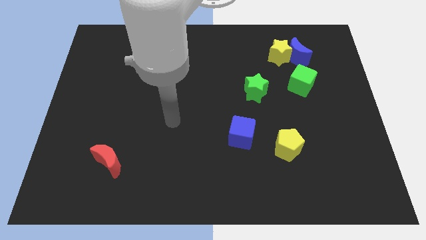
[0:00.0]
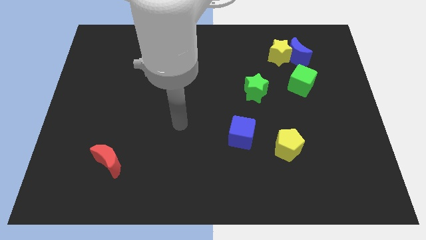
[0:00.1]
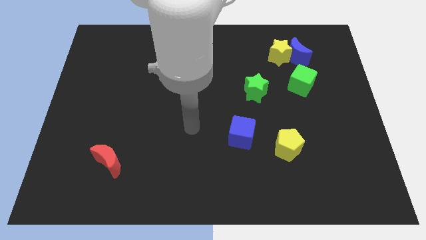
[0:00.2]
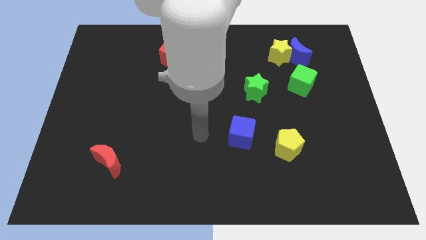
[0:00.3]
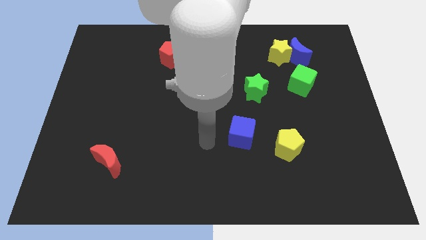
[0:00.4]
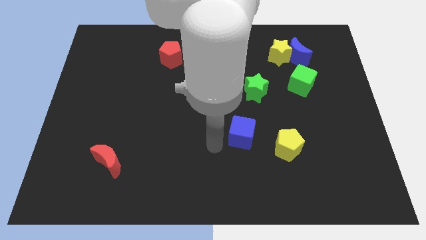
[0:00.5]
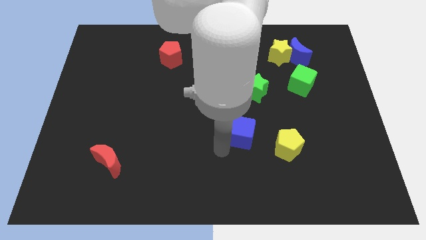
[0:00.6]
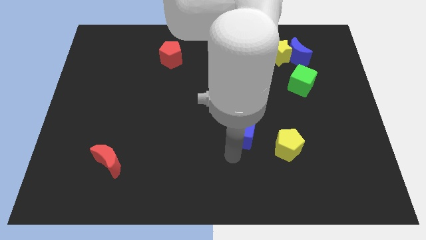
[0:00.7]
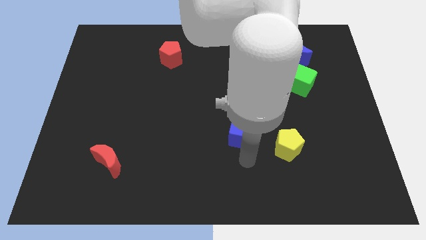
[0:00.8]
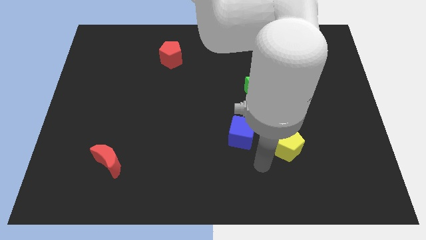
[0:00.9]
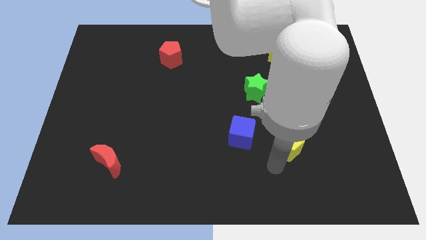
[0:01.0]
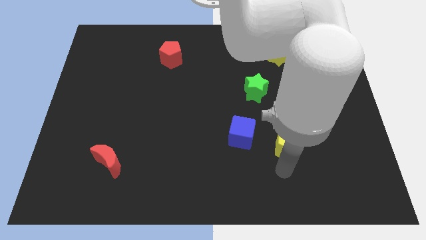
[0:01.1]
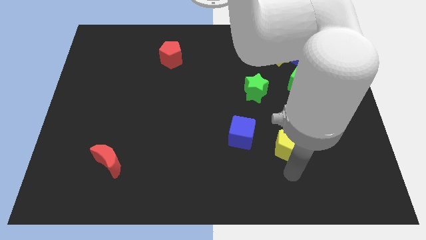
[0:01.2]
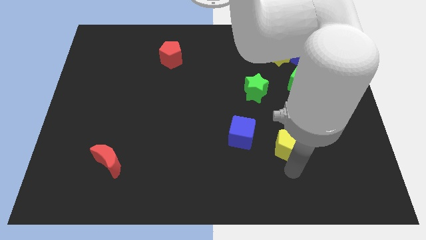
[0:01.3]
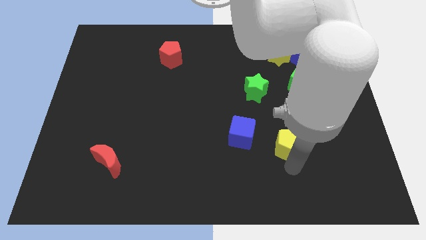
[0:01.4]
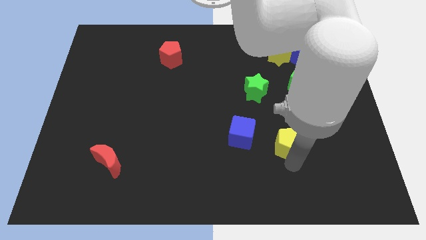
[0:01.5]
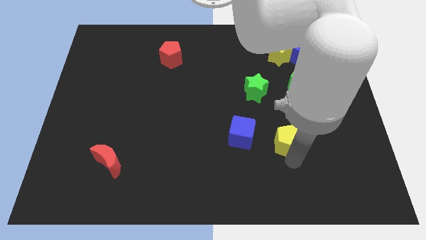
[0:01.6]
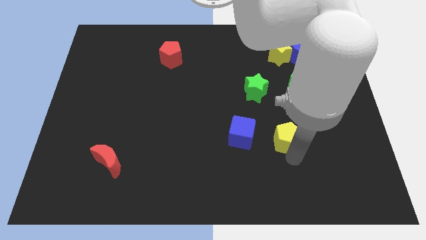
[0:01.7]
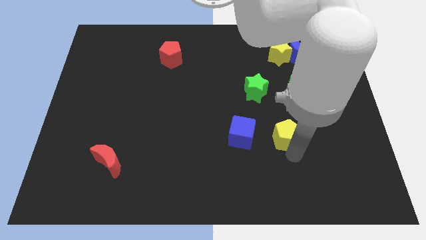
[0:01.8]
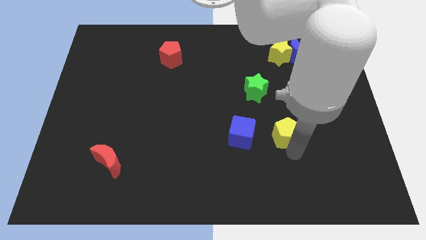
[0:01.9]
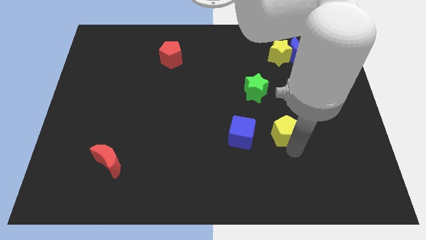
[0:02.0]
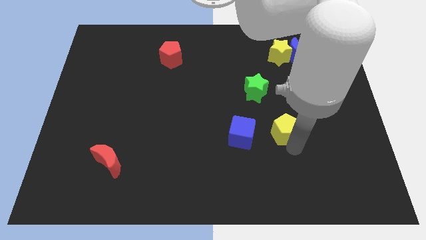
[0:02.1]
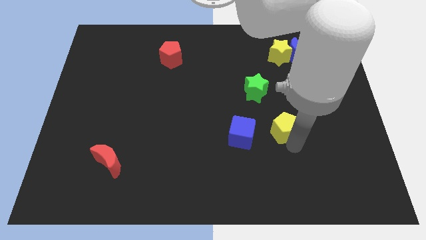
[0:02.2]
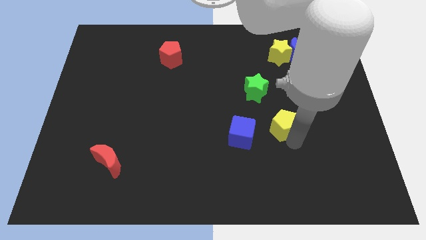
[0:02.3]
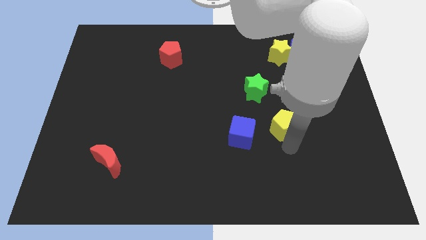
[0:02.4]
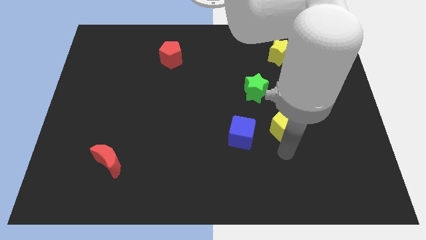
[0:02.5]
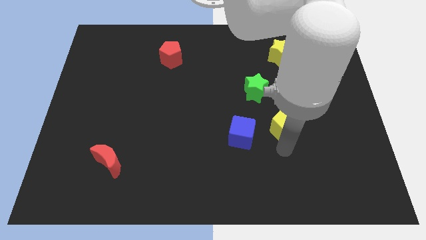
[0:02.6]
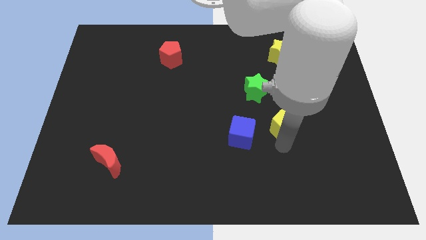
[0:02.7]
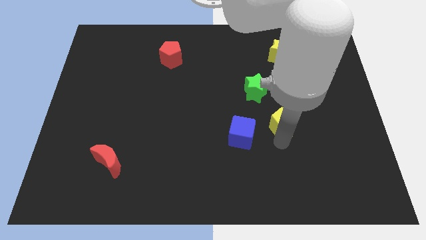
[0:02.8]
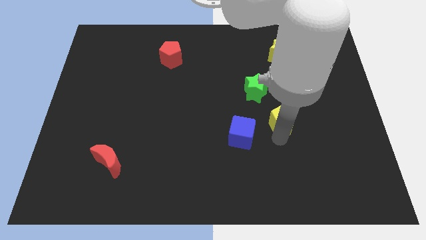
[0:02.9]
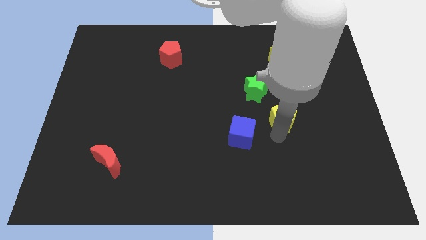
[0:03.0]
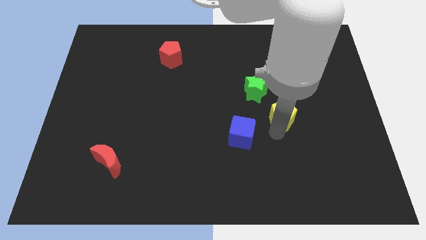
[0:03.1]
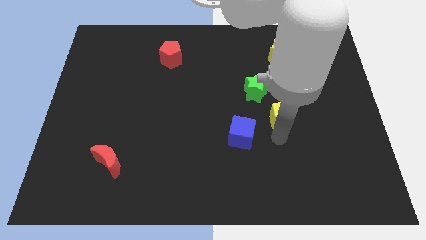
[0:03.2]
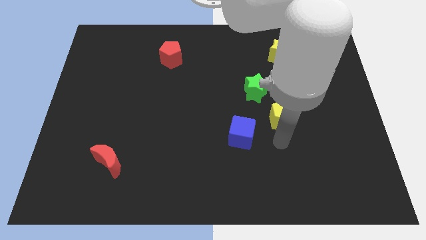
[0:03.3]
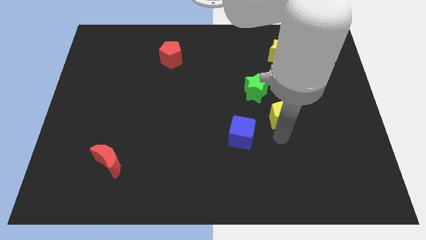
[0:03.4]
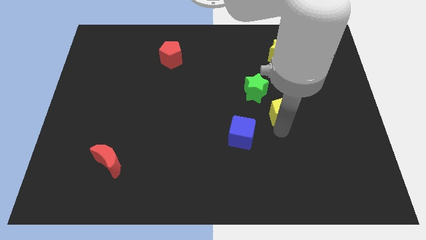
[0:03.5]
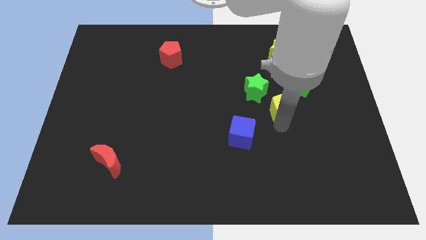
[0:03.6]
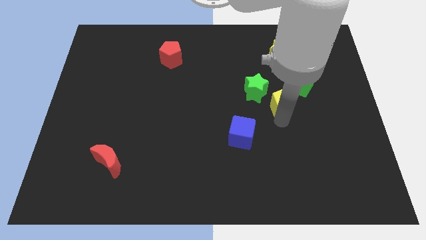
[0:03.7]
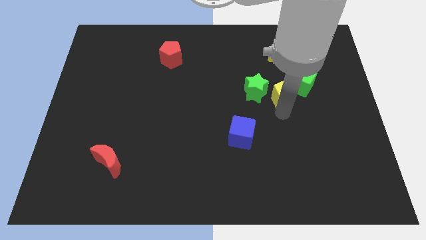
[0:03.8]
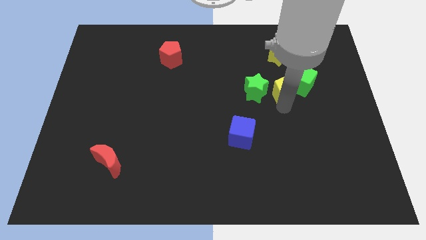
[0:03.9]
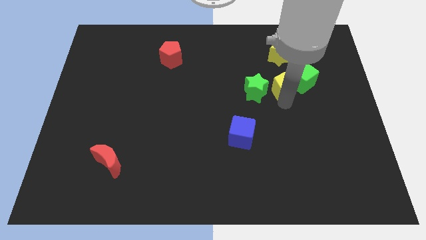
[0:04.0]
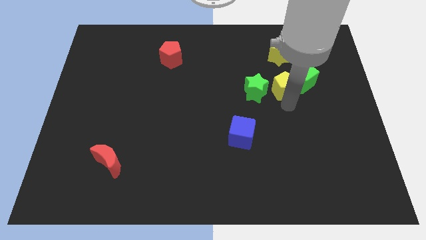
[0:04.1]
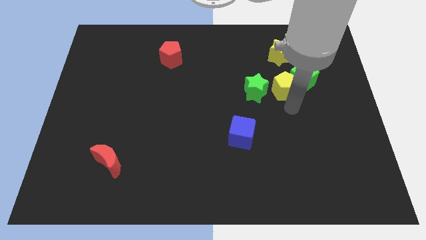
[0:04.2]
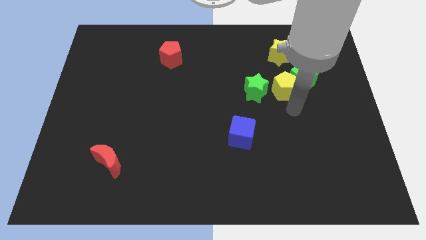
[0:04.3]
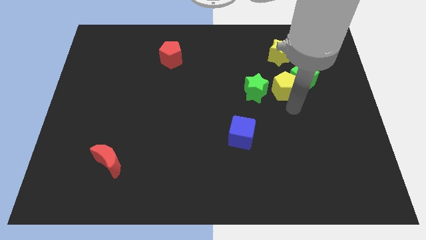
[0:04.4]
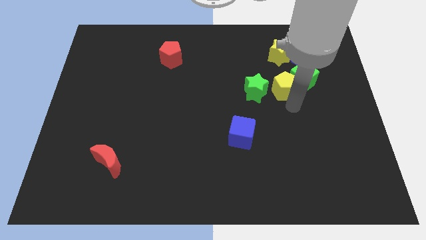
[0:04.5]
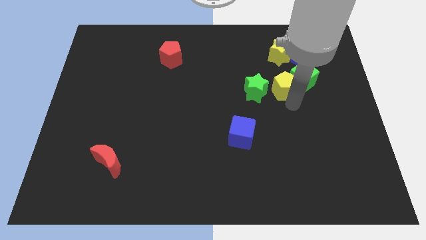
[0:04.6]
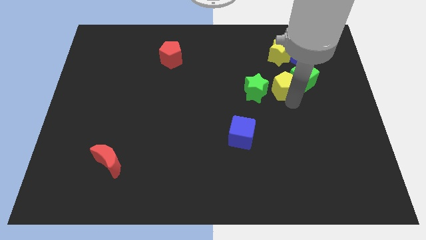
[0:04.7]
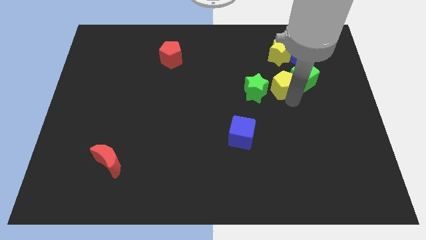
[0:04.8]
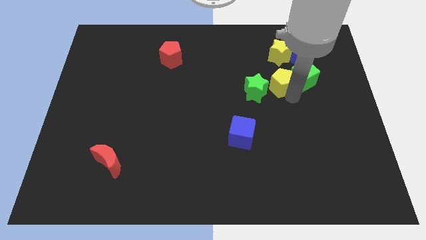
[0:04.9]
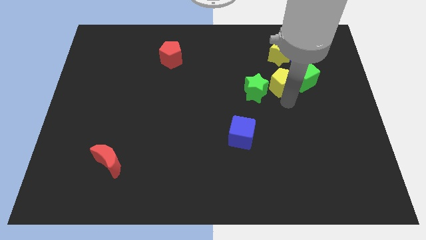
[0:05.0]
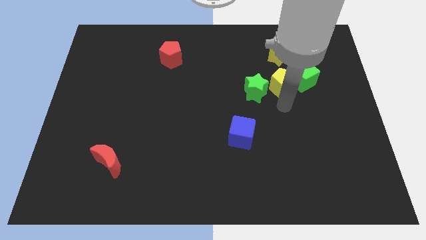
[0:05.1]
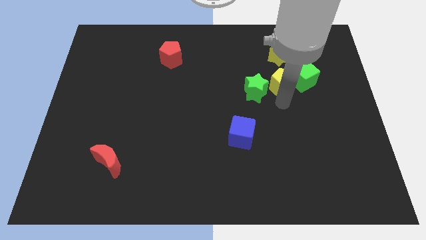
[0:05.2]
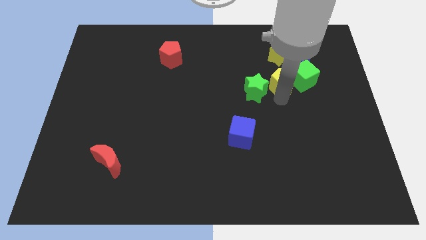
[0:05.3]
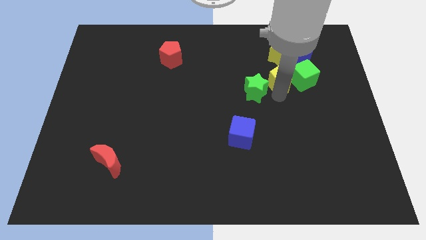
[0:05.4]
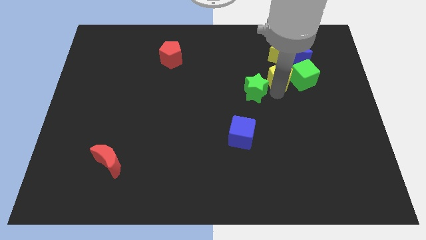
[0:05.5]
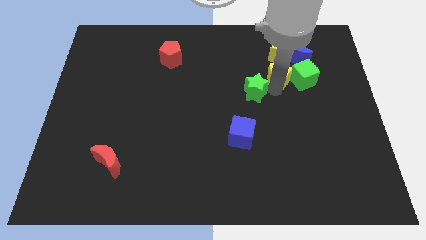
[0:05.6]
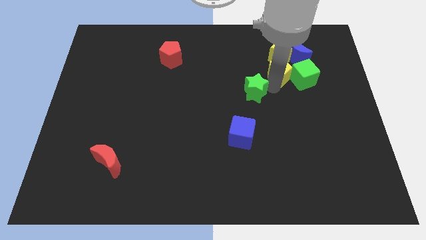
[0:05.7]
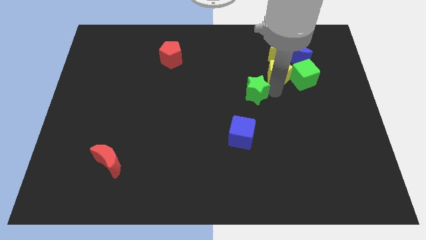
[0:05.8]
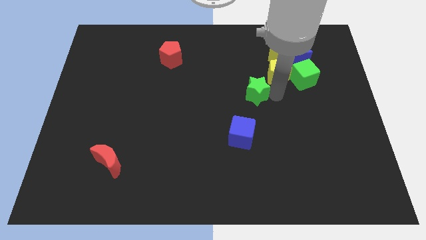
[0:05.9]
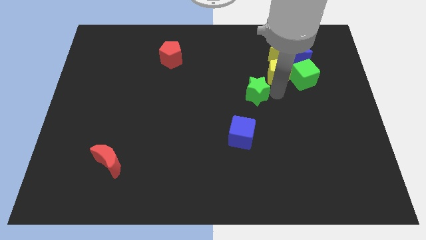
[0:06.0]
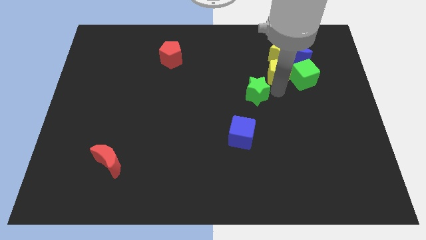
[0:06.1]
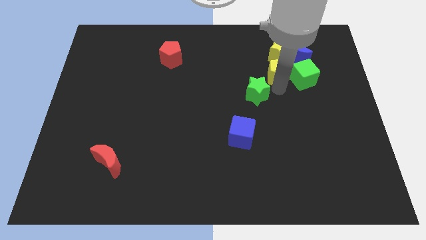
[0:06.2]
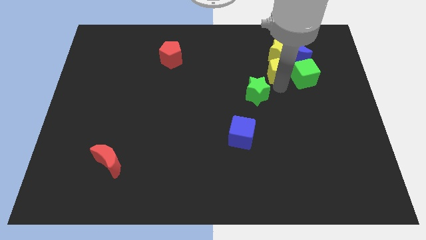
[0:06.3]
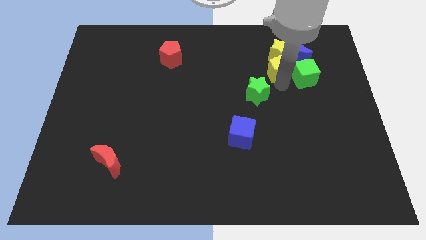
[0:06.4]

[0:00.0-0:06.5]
slide the yellow pentagon next to the yellow star

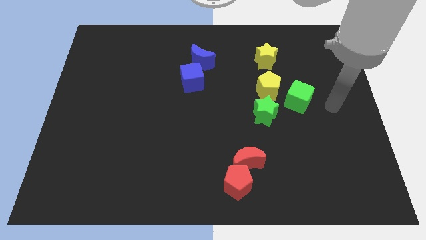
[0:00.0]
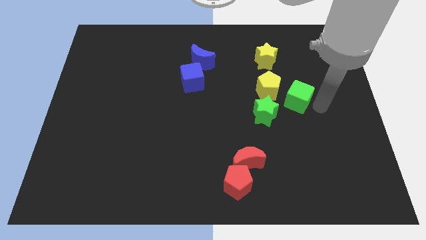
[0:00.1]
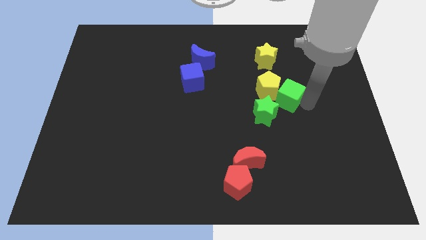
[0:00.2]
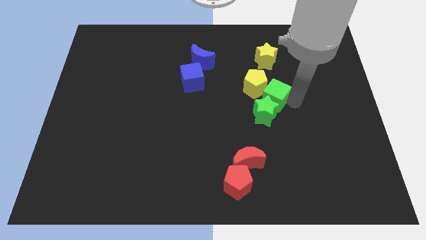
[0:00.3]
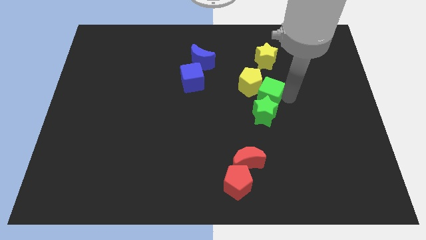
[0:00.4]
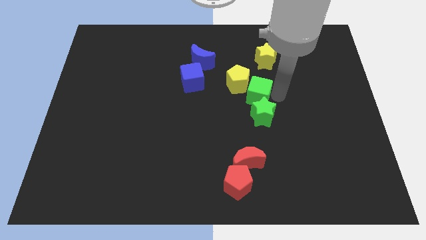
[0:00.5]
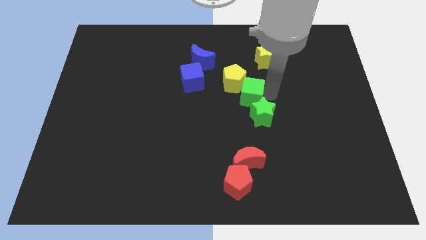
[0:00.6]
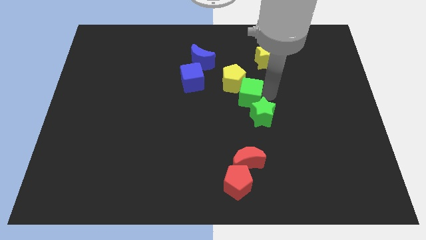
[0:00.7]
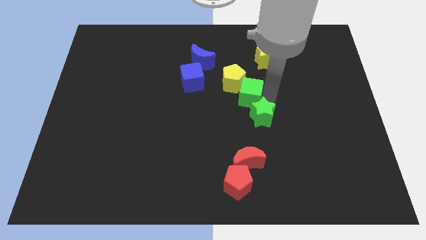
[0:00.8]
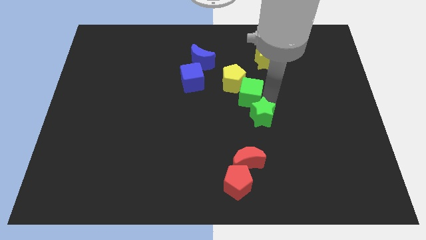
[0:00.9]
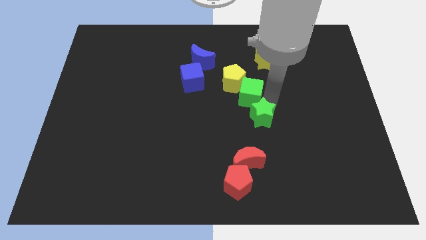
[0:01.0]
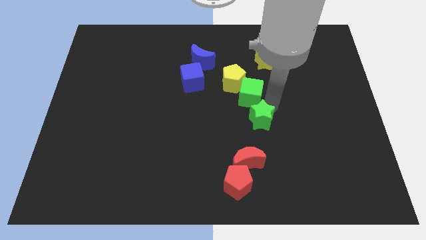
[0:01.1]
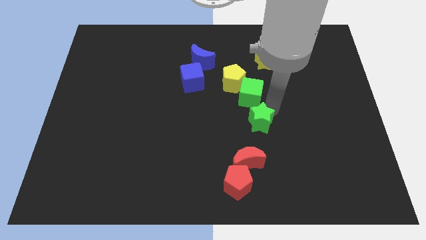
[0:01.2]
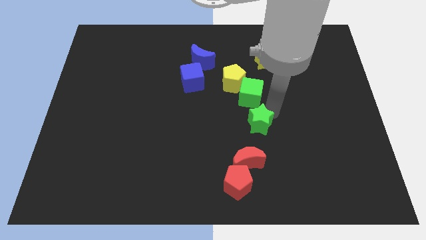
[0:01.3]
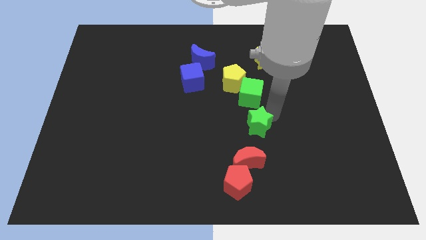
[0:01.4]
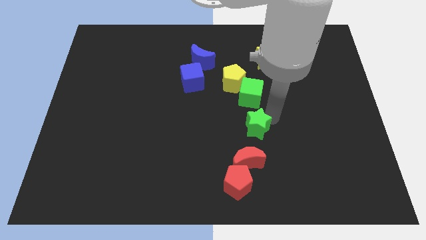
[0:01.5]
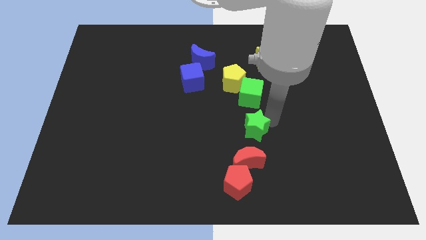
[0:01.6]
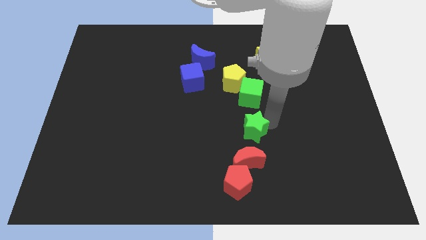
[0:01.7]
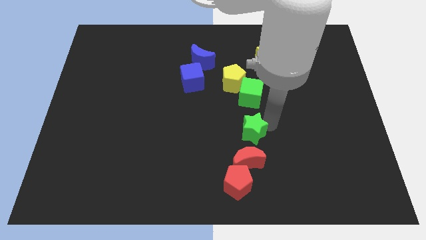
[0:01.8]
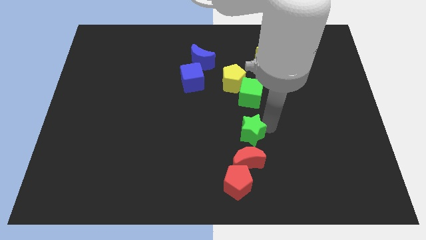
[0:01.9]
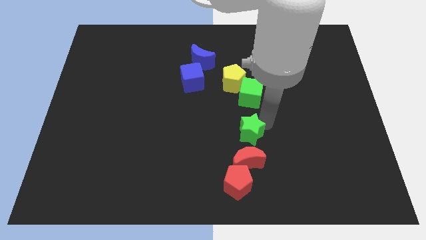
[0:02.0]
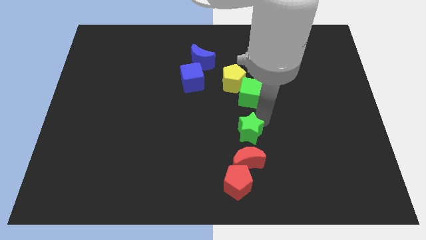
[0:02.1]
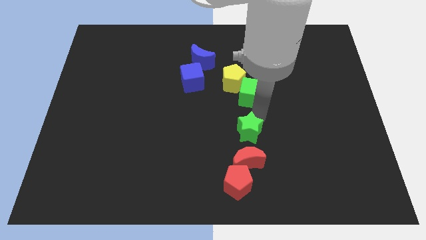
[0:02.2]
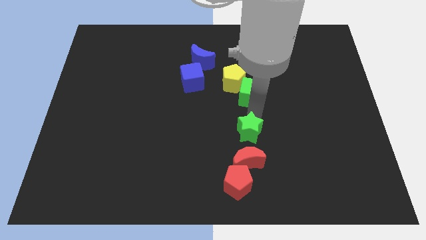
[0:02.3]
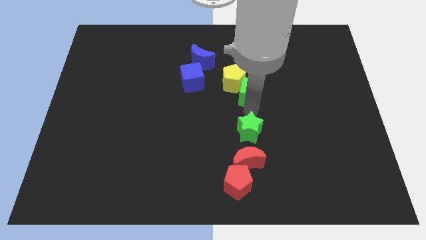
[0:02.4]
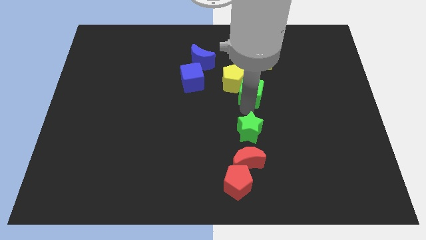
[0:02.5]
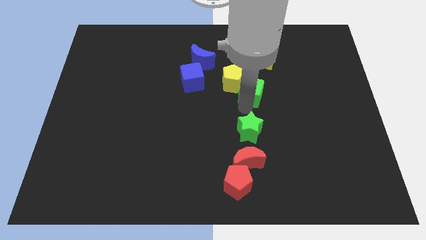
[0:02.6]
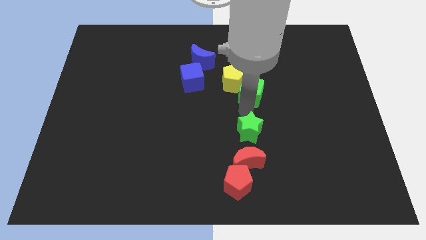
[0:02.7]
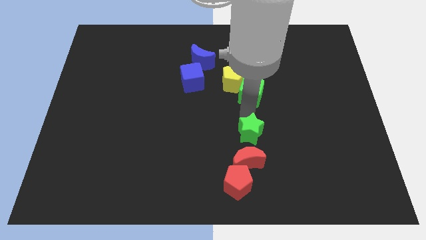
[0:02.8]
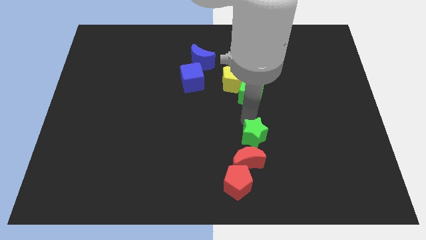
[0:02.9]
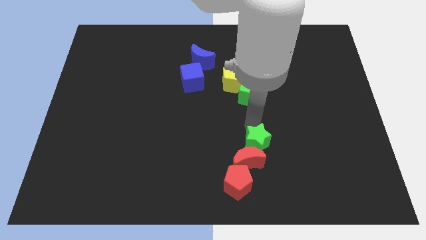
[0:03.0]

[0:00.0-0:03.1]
slide the green star to the red moon
